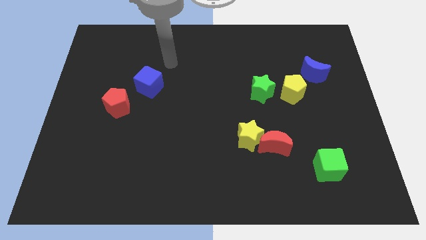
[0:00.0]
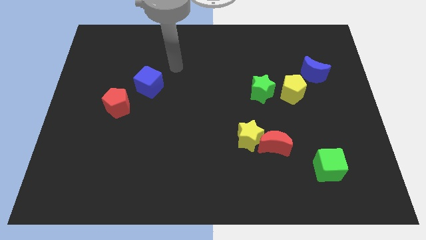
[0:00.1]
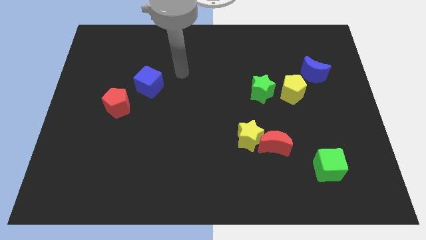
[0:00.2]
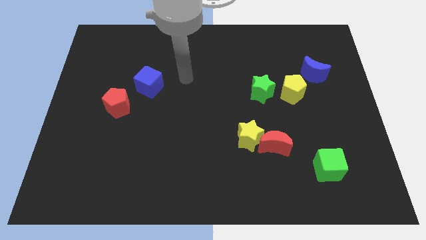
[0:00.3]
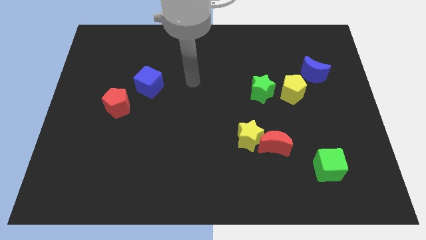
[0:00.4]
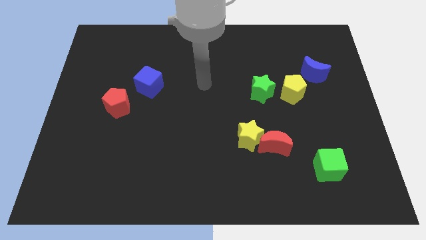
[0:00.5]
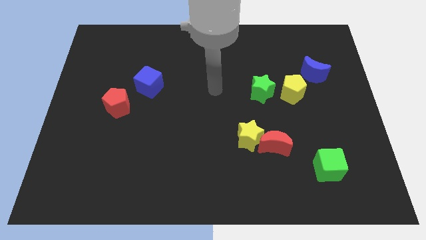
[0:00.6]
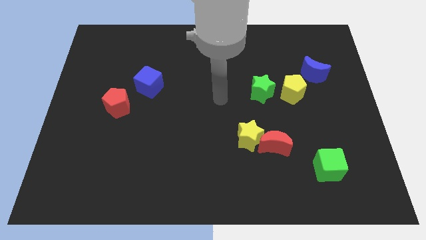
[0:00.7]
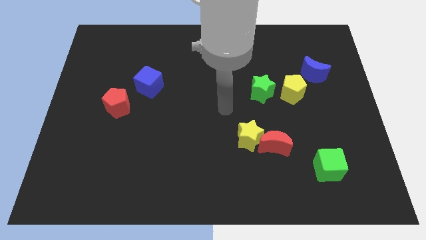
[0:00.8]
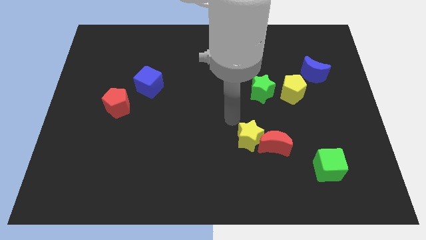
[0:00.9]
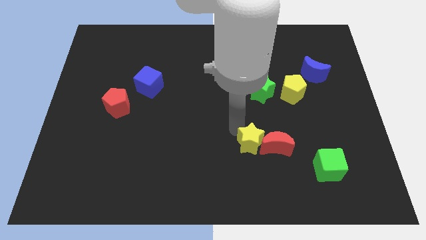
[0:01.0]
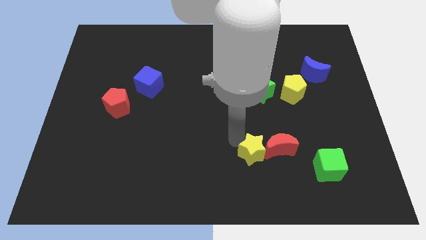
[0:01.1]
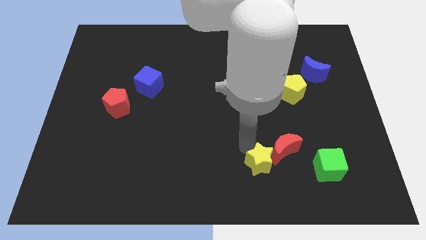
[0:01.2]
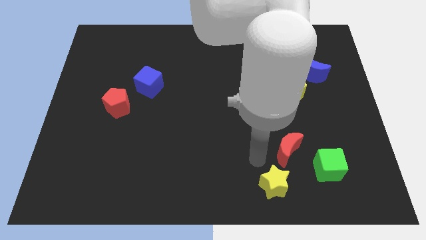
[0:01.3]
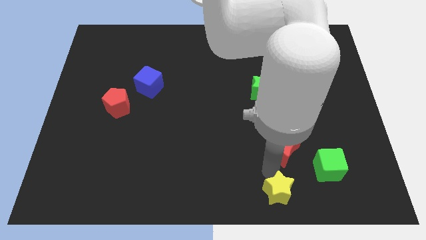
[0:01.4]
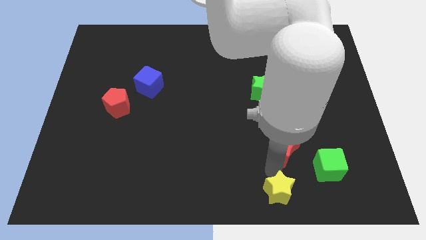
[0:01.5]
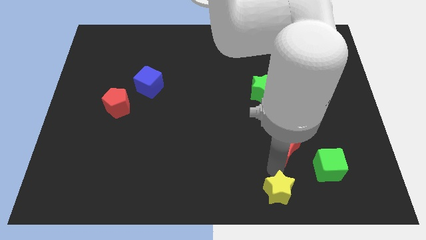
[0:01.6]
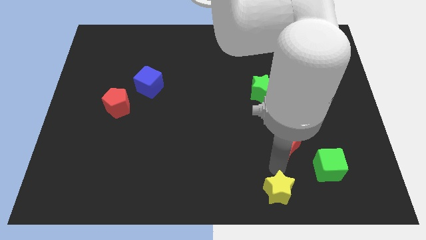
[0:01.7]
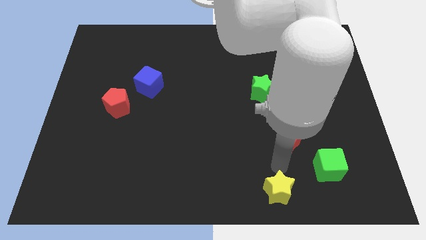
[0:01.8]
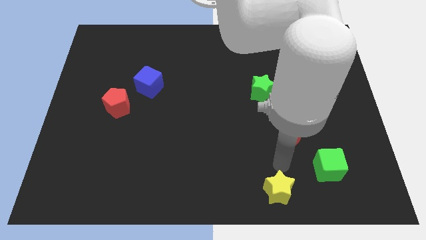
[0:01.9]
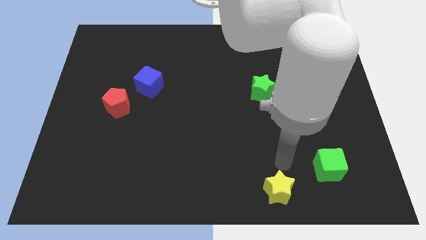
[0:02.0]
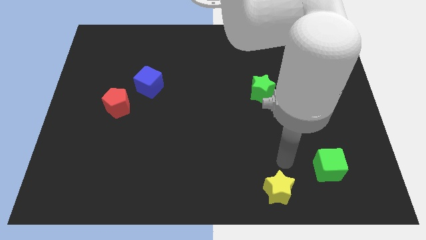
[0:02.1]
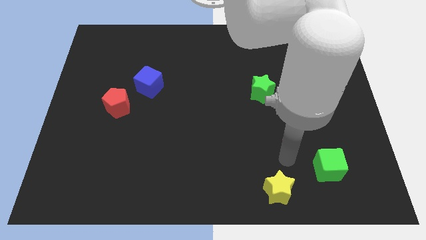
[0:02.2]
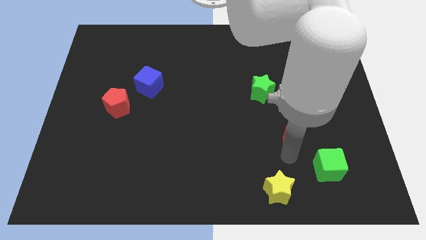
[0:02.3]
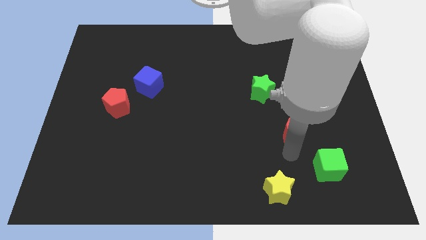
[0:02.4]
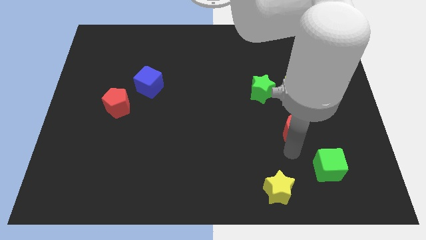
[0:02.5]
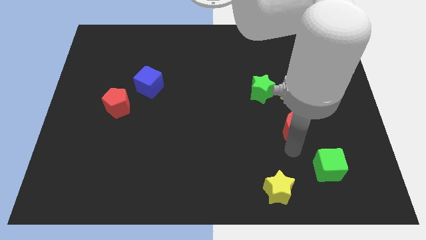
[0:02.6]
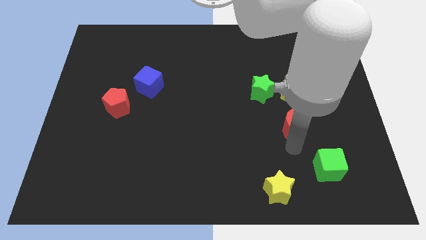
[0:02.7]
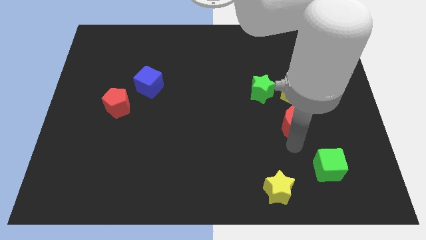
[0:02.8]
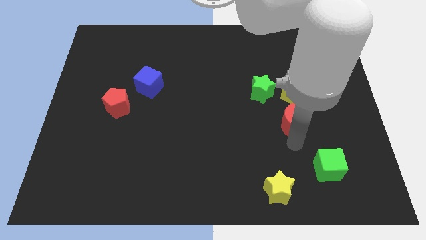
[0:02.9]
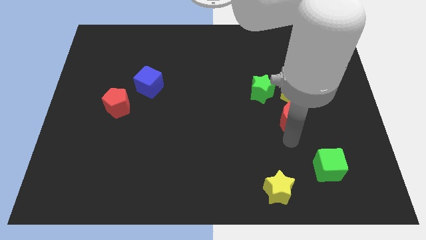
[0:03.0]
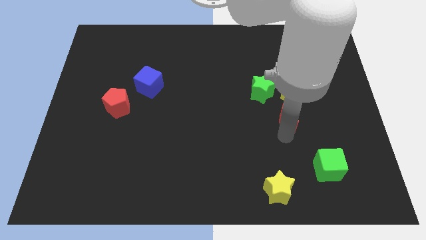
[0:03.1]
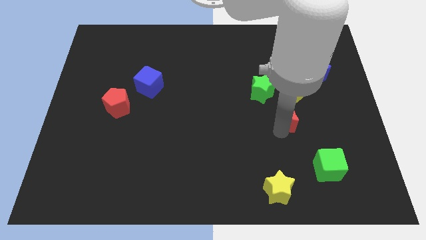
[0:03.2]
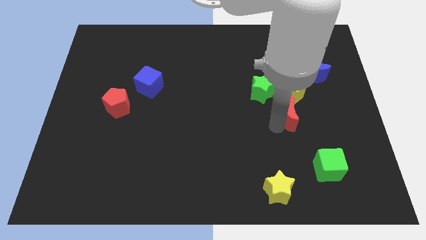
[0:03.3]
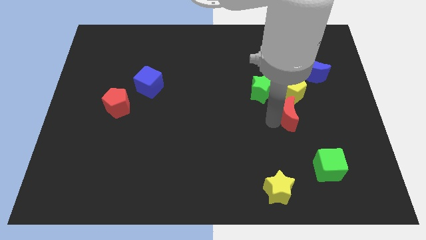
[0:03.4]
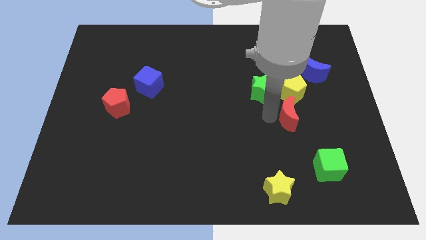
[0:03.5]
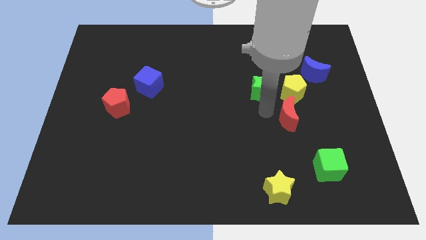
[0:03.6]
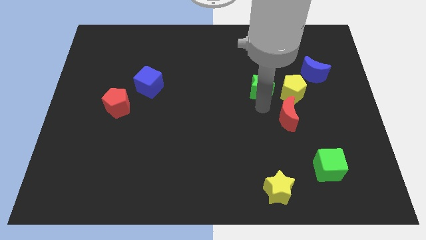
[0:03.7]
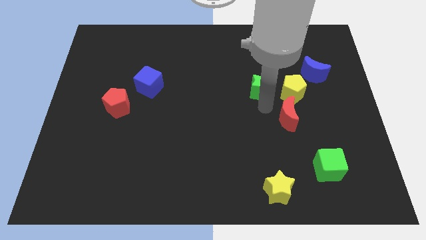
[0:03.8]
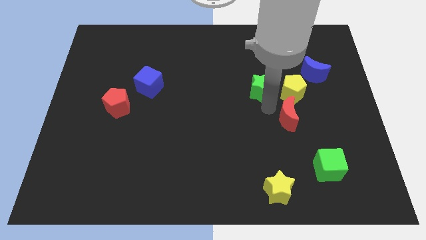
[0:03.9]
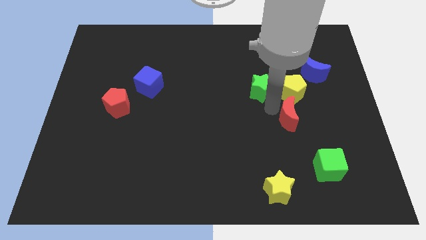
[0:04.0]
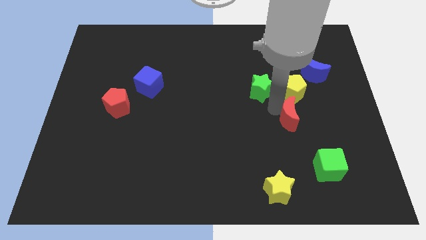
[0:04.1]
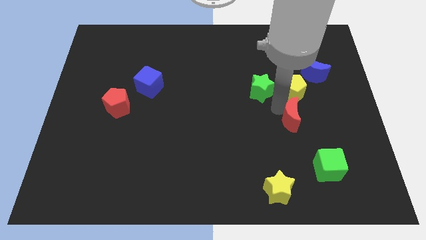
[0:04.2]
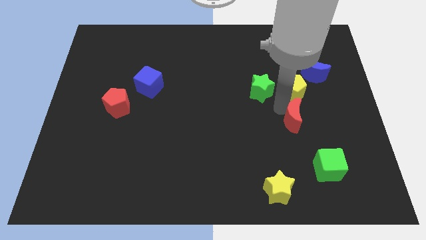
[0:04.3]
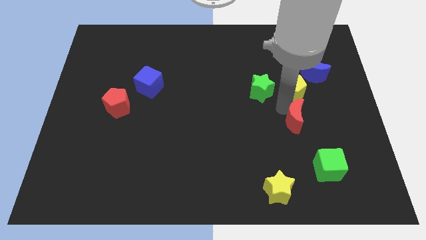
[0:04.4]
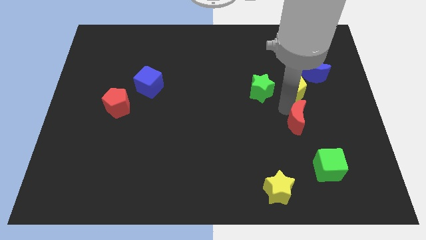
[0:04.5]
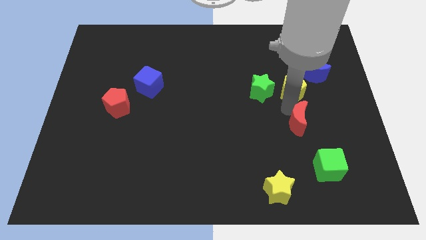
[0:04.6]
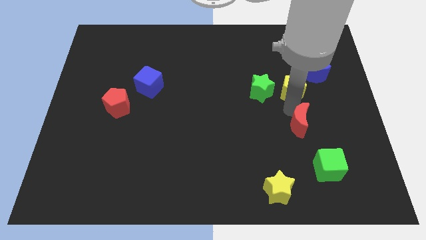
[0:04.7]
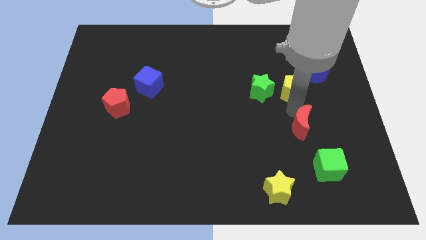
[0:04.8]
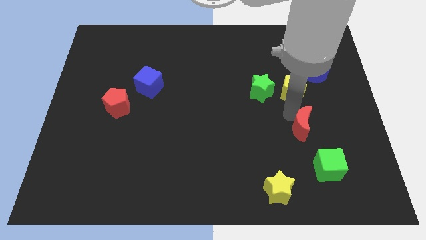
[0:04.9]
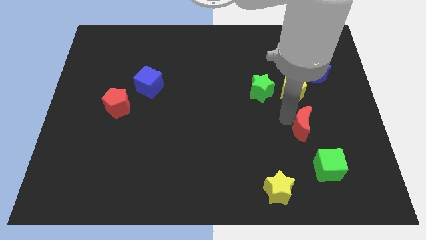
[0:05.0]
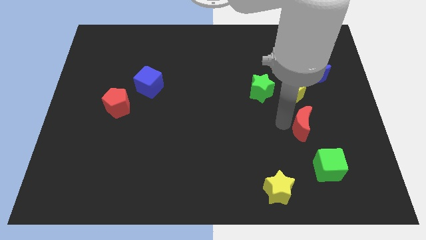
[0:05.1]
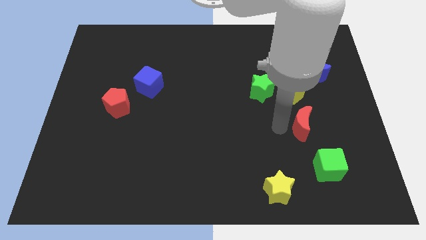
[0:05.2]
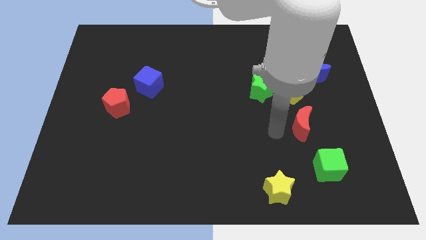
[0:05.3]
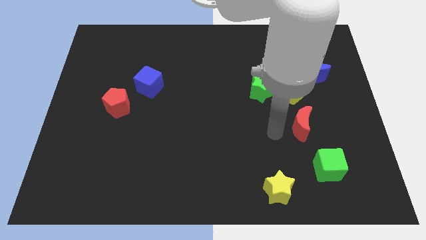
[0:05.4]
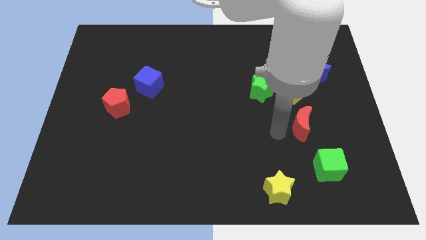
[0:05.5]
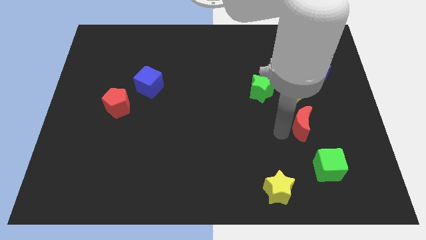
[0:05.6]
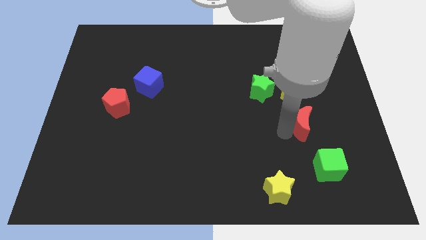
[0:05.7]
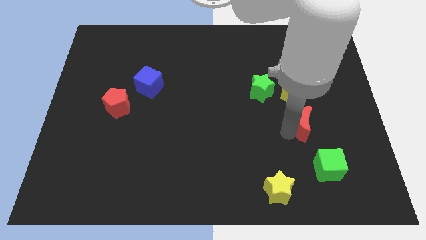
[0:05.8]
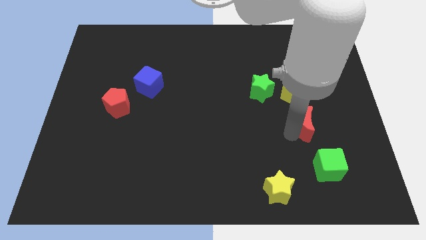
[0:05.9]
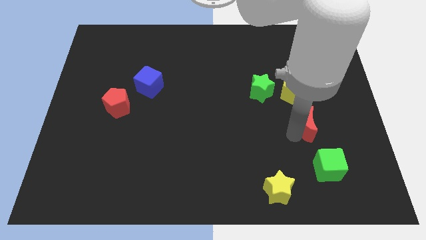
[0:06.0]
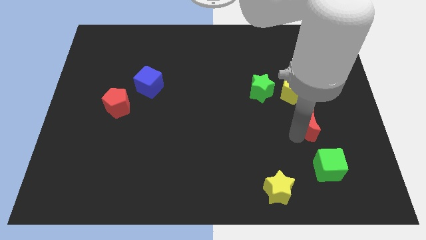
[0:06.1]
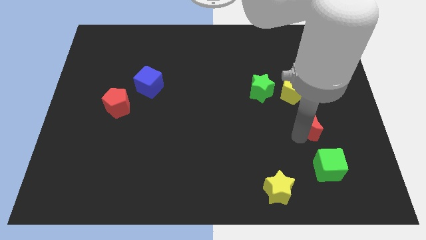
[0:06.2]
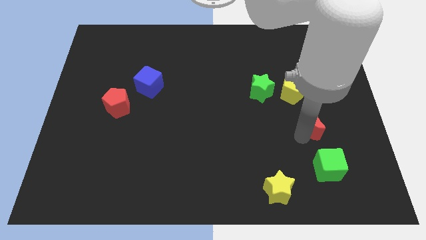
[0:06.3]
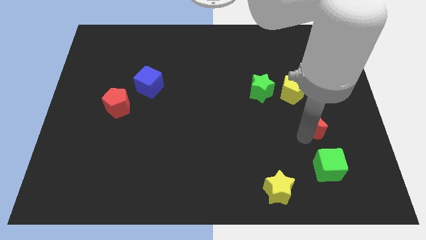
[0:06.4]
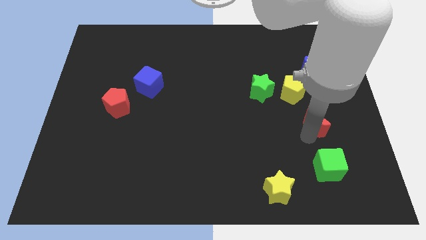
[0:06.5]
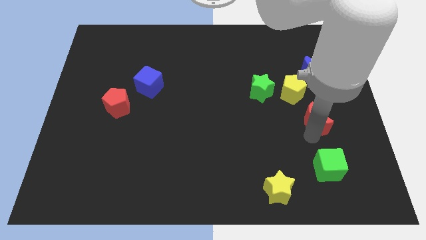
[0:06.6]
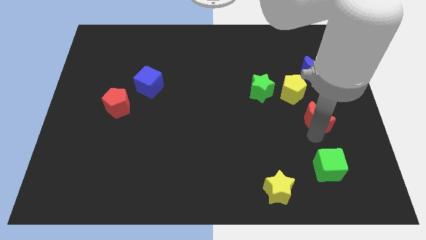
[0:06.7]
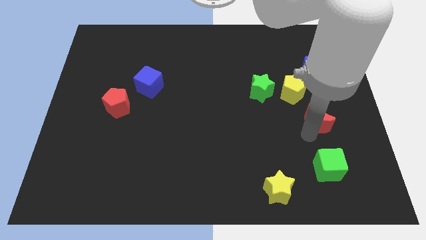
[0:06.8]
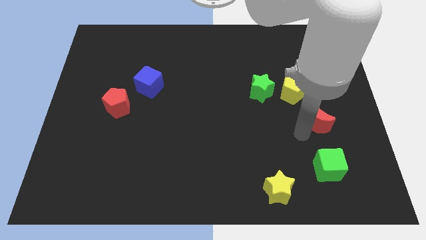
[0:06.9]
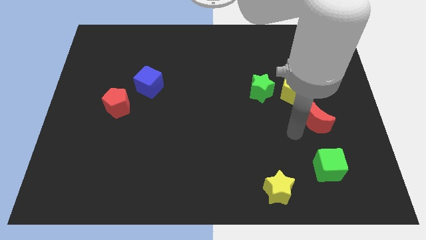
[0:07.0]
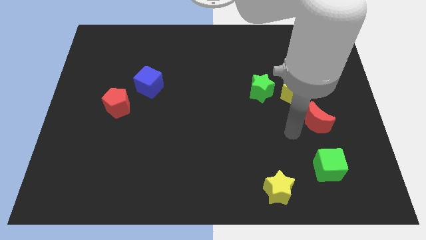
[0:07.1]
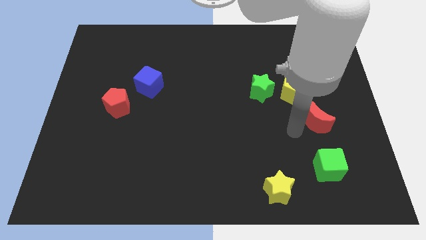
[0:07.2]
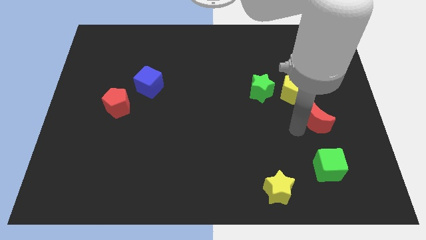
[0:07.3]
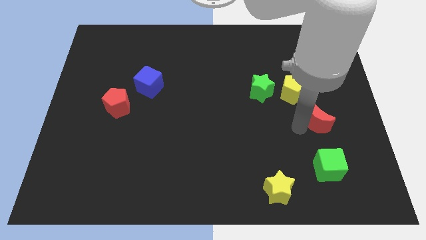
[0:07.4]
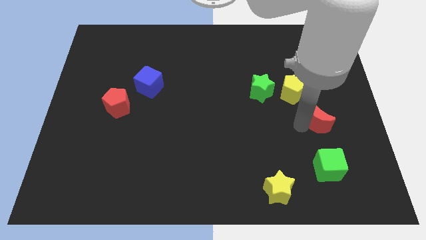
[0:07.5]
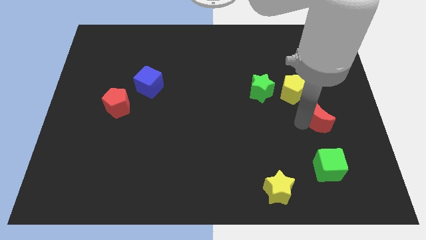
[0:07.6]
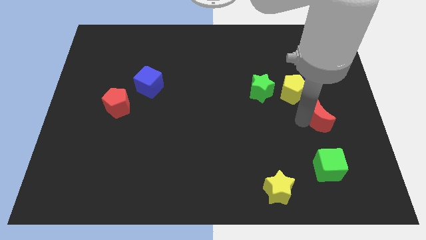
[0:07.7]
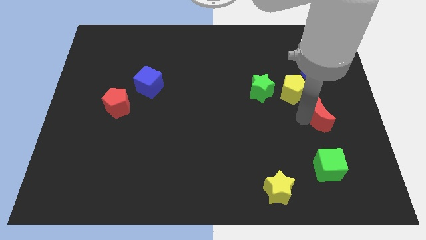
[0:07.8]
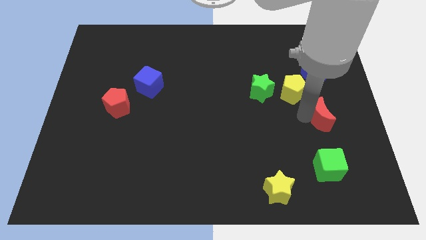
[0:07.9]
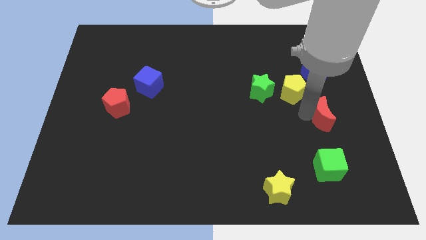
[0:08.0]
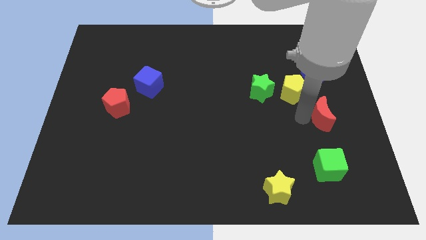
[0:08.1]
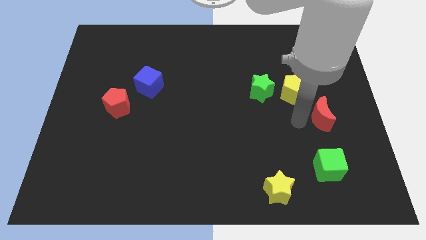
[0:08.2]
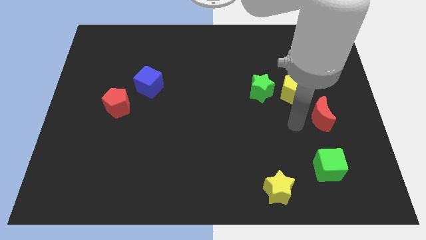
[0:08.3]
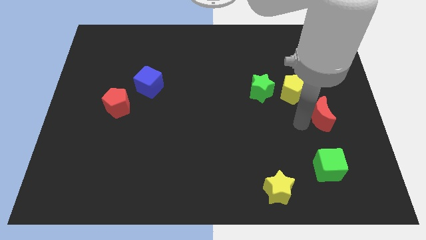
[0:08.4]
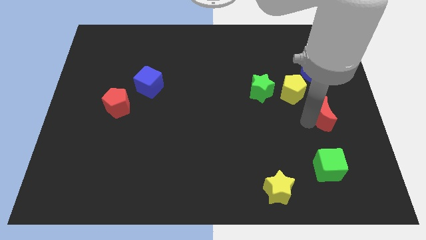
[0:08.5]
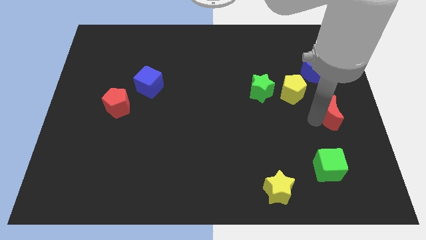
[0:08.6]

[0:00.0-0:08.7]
push the red moon to the right side
